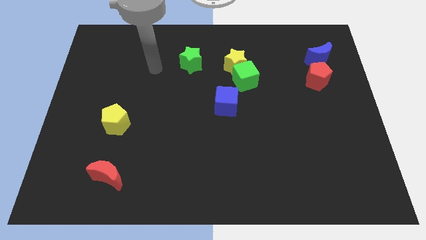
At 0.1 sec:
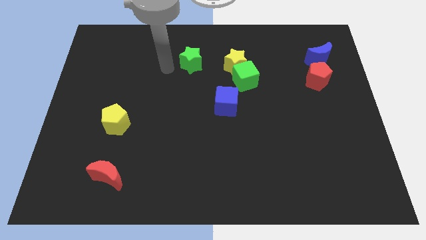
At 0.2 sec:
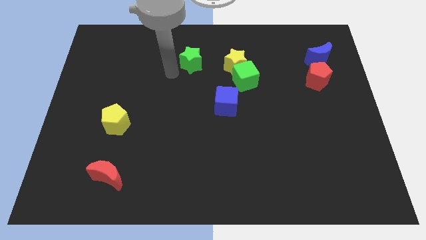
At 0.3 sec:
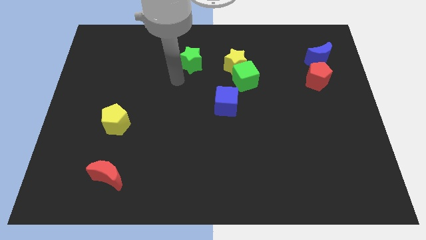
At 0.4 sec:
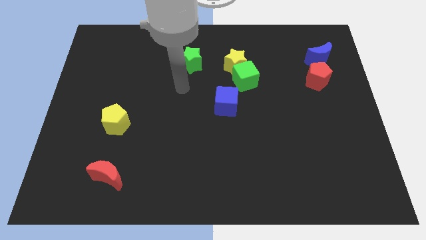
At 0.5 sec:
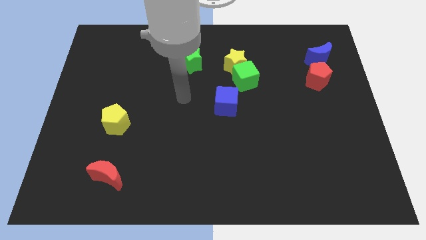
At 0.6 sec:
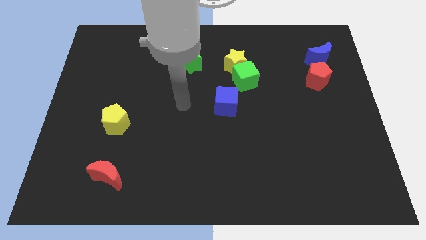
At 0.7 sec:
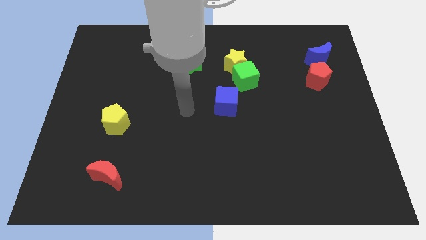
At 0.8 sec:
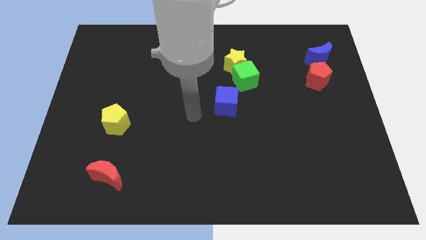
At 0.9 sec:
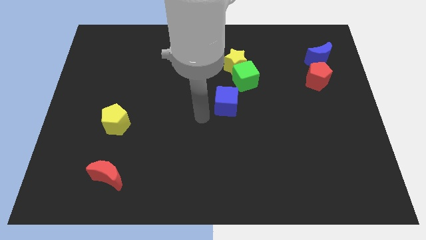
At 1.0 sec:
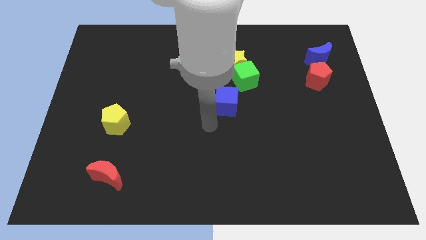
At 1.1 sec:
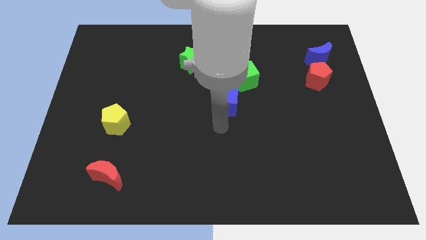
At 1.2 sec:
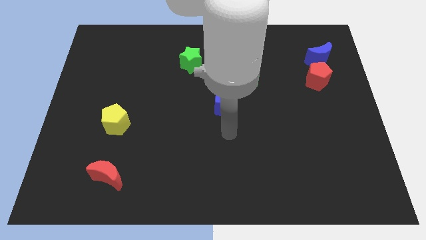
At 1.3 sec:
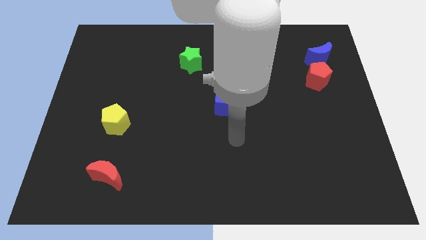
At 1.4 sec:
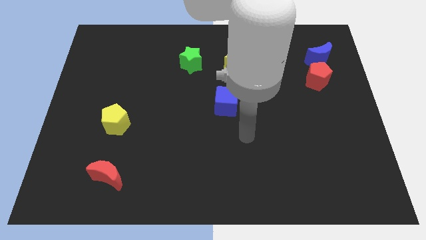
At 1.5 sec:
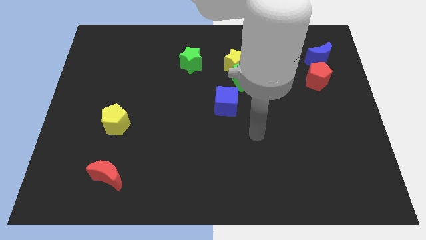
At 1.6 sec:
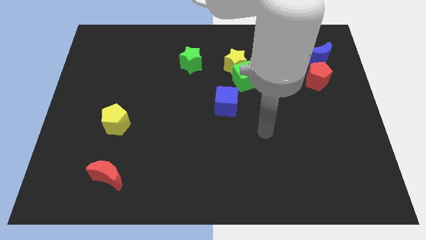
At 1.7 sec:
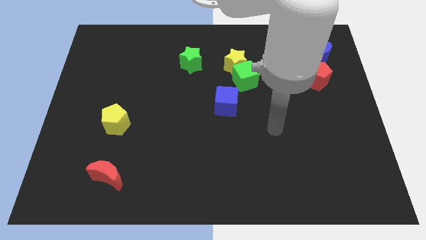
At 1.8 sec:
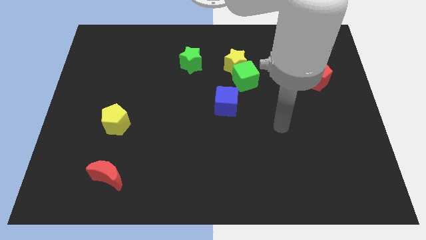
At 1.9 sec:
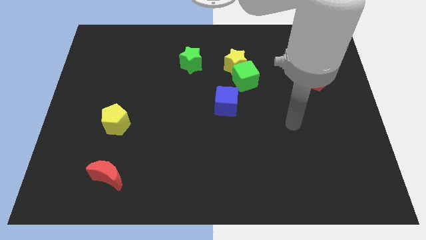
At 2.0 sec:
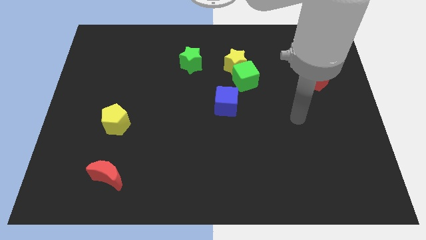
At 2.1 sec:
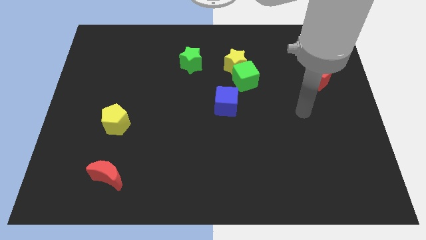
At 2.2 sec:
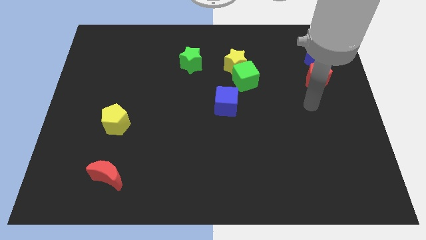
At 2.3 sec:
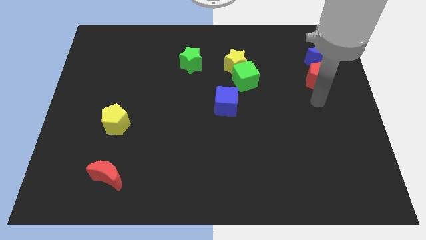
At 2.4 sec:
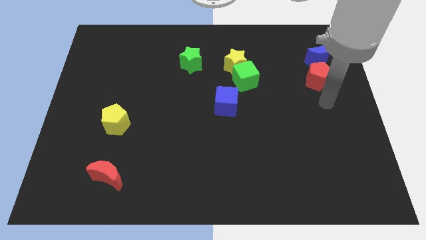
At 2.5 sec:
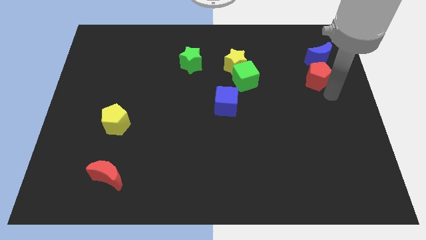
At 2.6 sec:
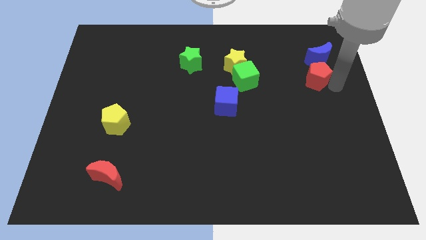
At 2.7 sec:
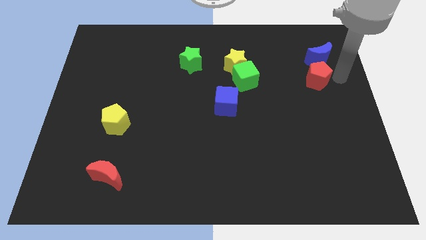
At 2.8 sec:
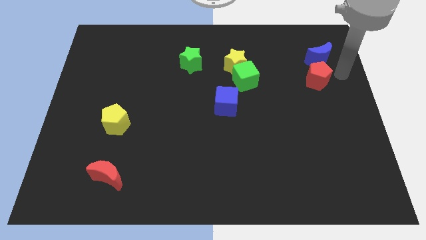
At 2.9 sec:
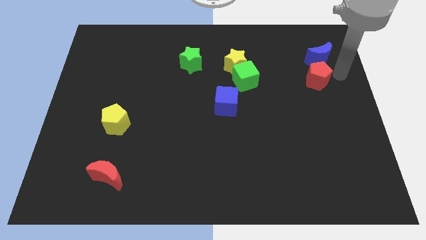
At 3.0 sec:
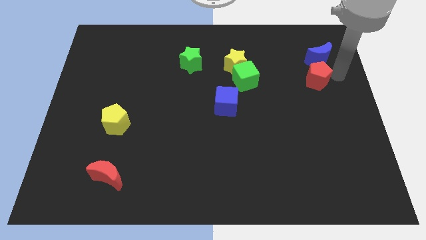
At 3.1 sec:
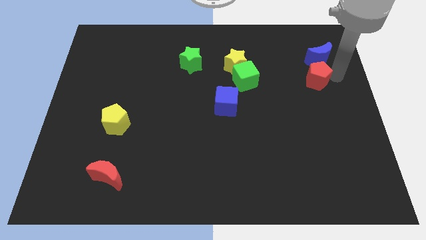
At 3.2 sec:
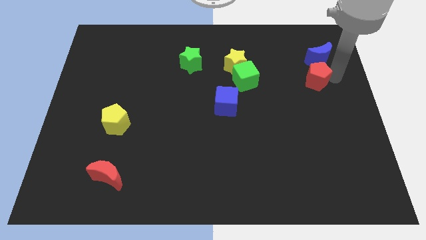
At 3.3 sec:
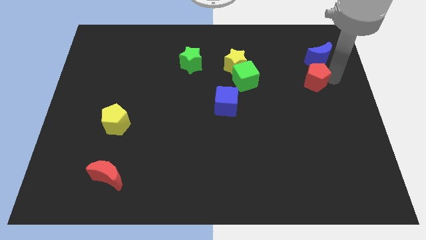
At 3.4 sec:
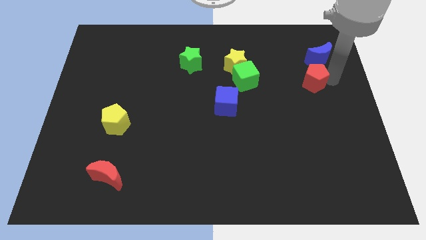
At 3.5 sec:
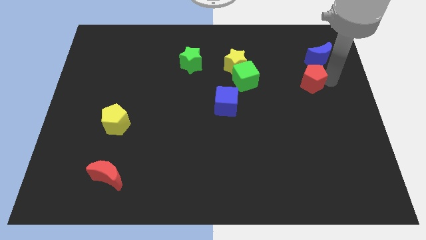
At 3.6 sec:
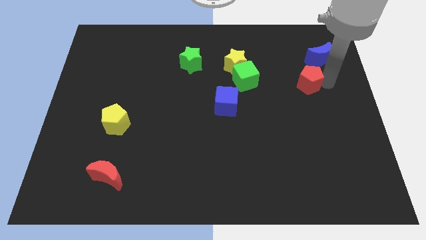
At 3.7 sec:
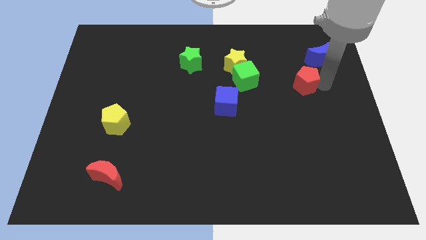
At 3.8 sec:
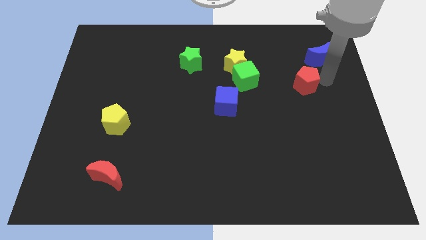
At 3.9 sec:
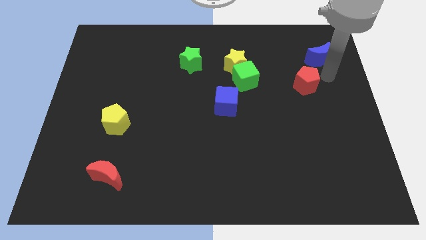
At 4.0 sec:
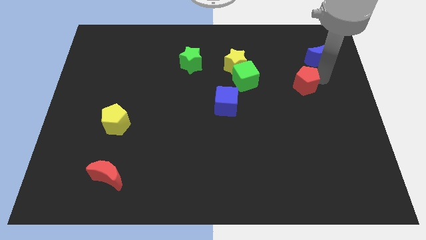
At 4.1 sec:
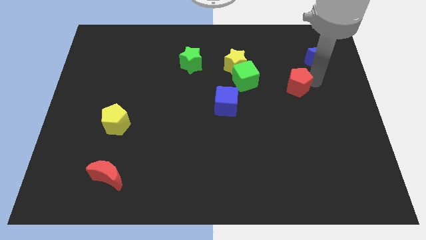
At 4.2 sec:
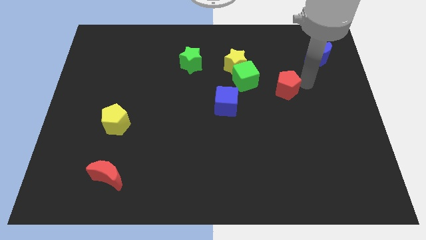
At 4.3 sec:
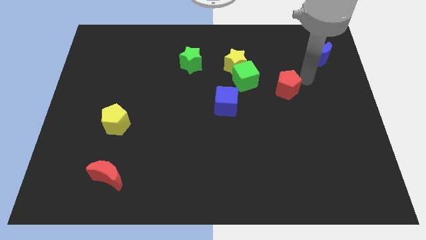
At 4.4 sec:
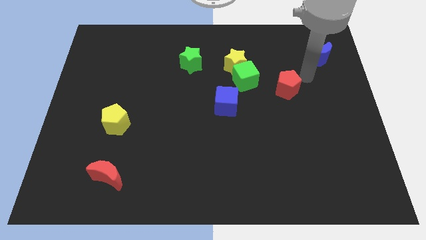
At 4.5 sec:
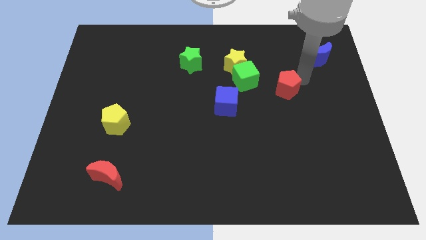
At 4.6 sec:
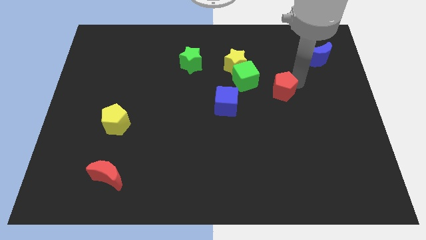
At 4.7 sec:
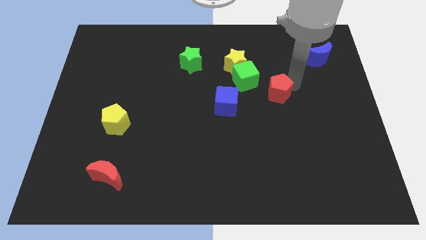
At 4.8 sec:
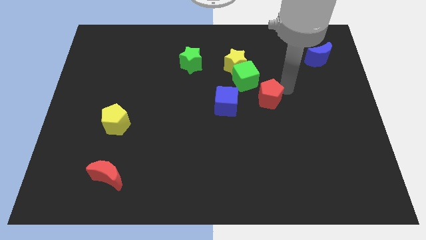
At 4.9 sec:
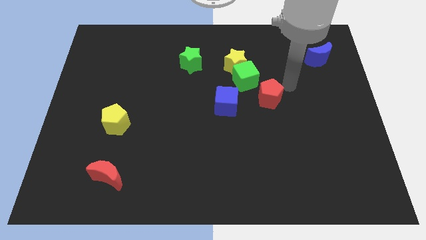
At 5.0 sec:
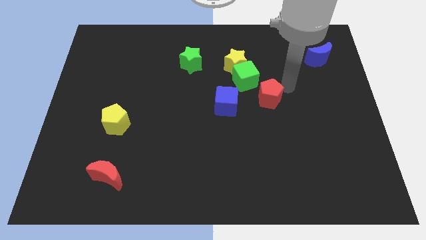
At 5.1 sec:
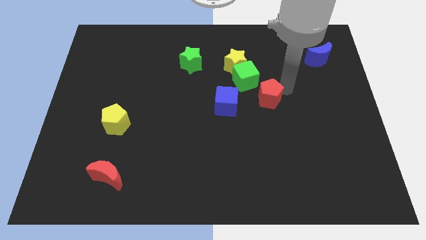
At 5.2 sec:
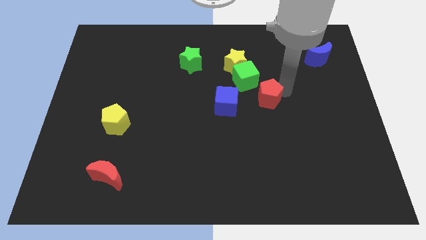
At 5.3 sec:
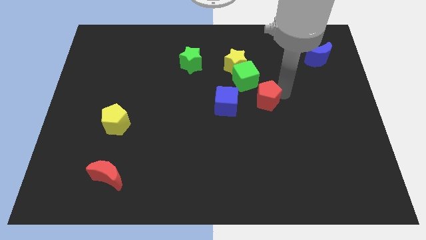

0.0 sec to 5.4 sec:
push the red pentagon to the bottom of the green cube

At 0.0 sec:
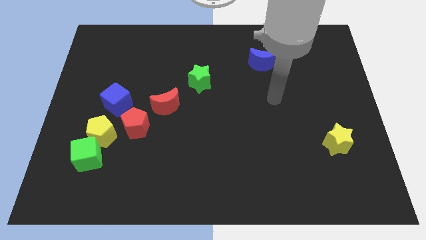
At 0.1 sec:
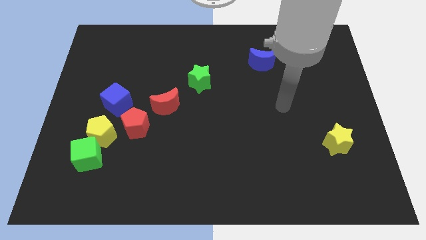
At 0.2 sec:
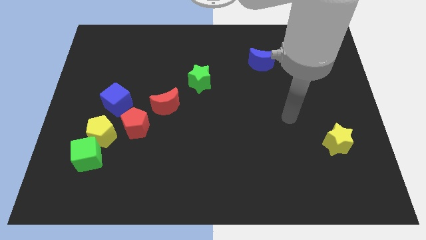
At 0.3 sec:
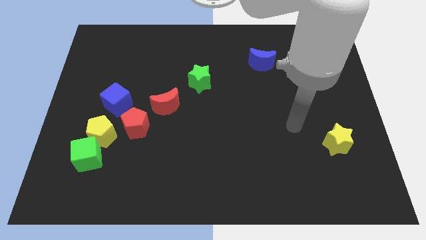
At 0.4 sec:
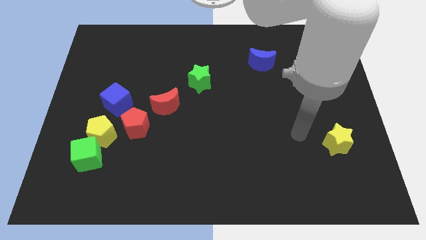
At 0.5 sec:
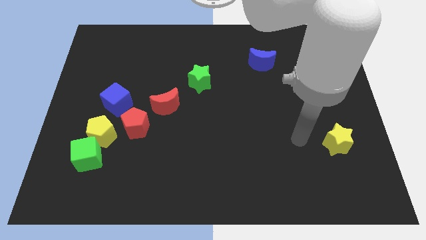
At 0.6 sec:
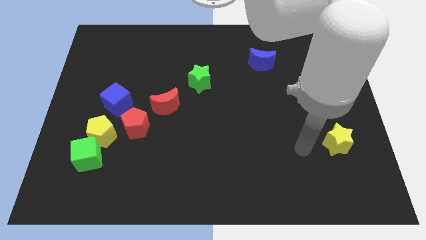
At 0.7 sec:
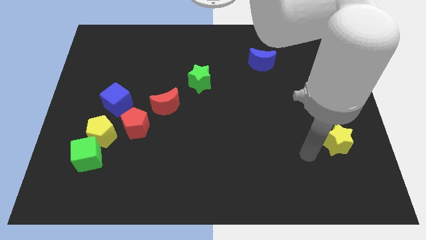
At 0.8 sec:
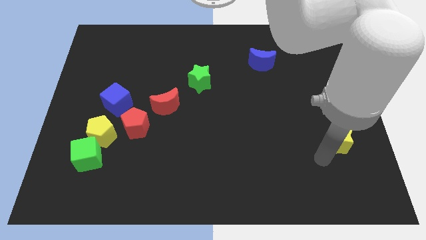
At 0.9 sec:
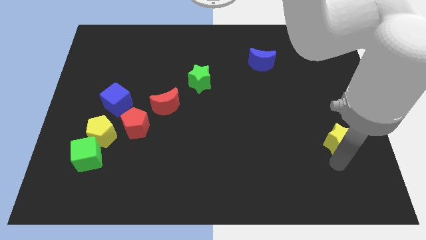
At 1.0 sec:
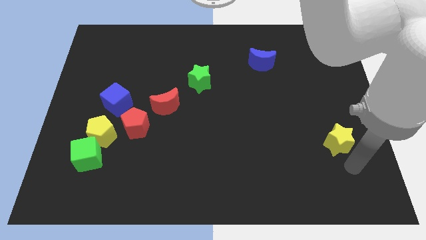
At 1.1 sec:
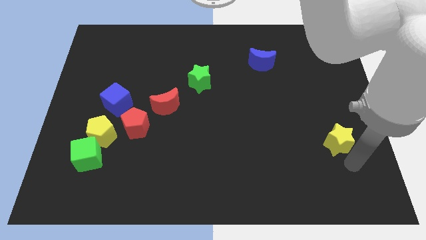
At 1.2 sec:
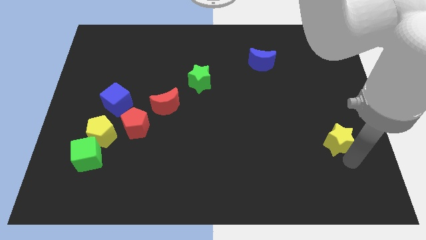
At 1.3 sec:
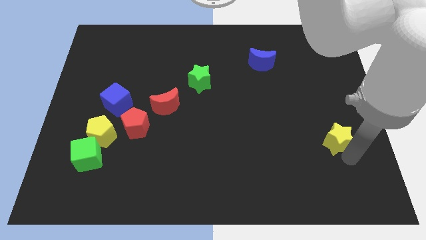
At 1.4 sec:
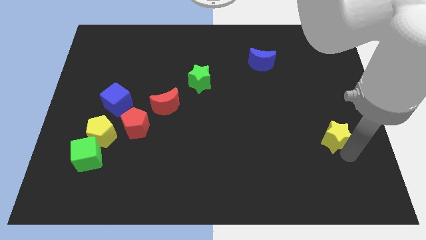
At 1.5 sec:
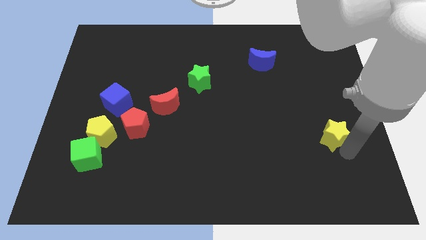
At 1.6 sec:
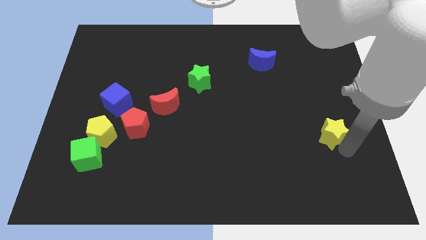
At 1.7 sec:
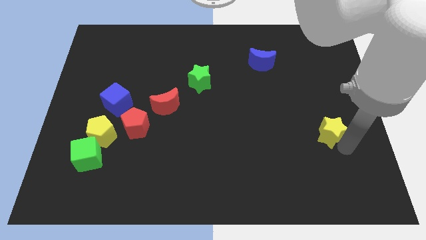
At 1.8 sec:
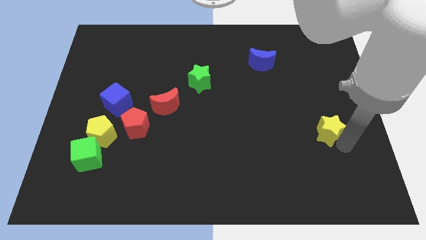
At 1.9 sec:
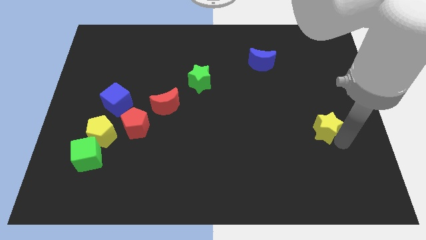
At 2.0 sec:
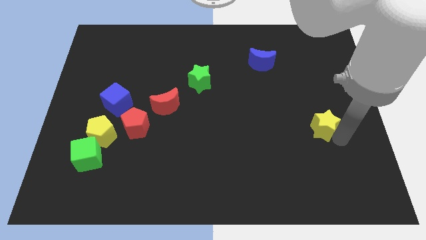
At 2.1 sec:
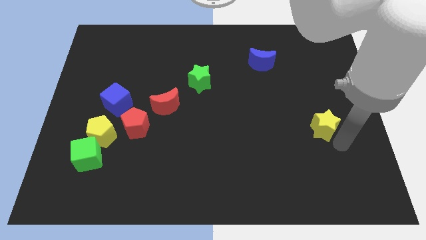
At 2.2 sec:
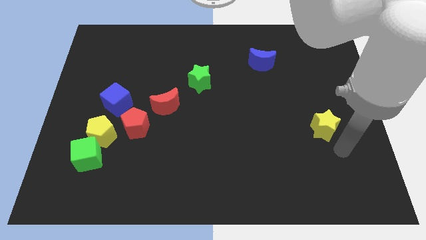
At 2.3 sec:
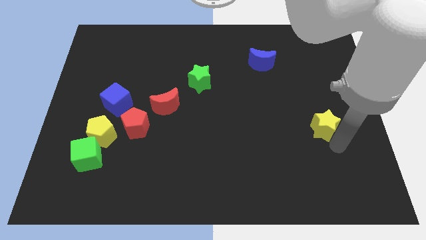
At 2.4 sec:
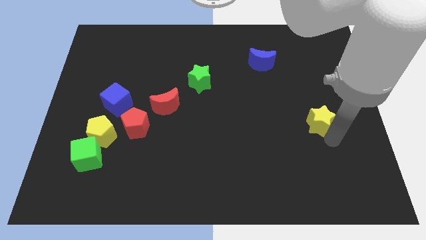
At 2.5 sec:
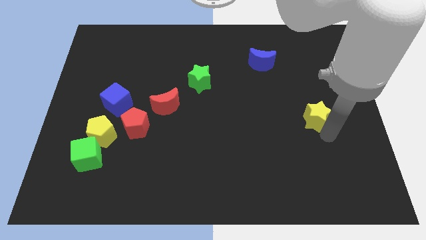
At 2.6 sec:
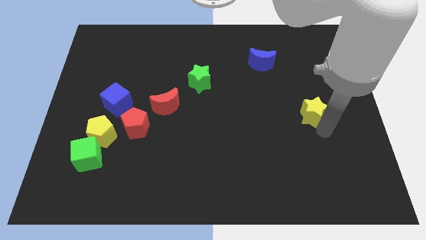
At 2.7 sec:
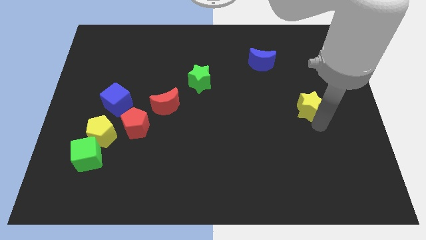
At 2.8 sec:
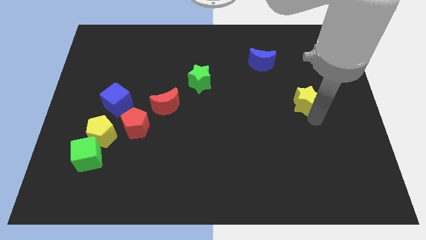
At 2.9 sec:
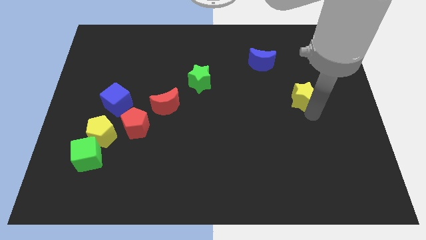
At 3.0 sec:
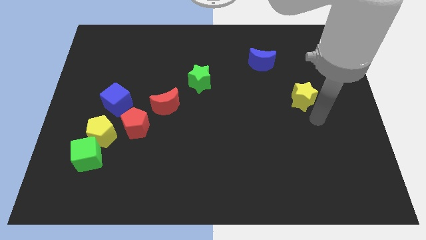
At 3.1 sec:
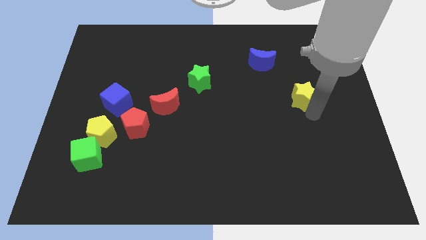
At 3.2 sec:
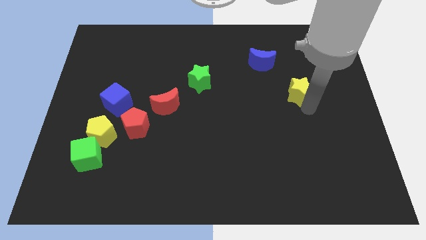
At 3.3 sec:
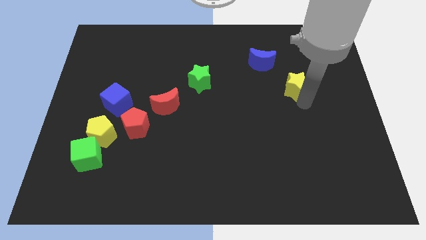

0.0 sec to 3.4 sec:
slide the yellow star to the bottom right side of the blue moon
